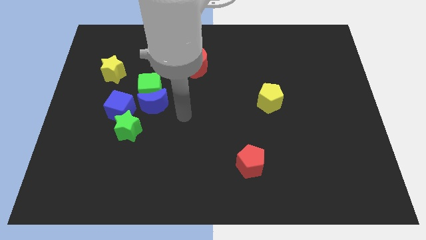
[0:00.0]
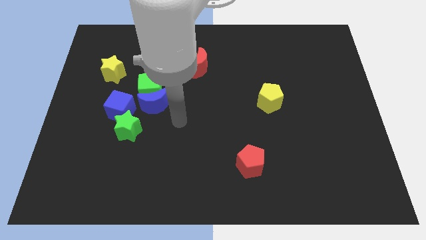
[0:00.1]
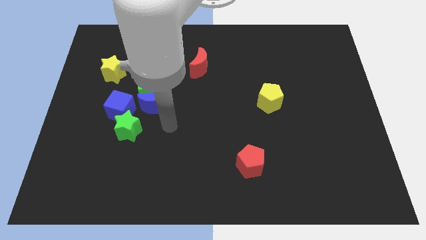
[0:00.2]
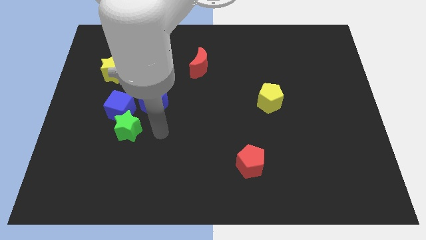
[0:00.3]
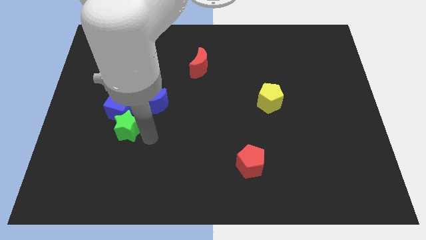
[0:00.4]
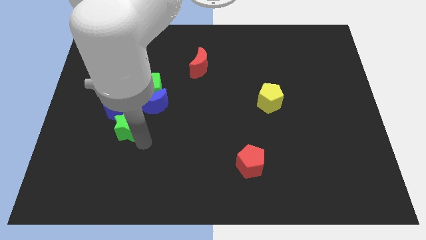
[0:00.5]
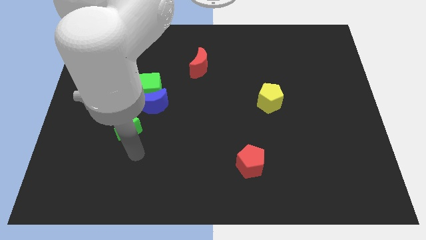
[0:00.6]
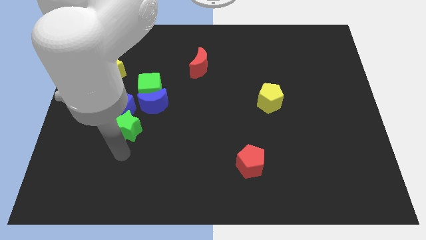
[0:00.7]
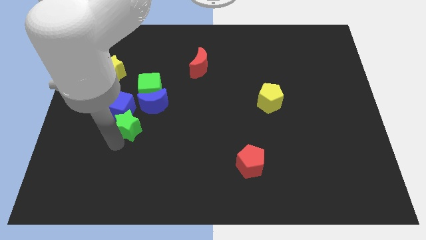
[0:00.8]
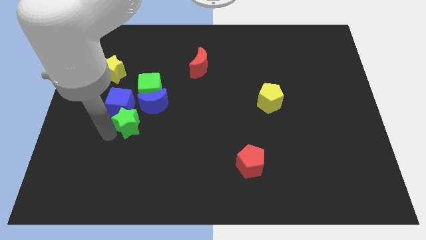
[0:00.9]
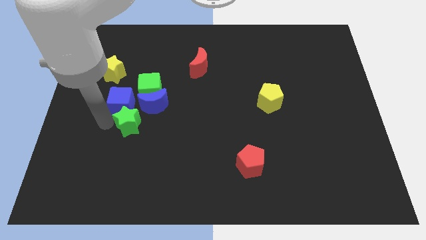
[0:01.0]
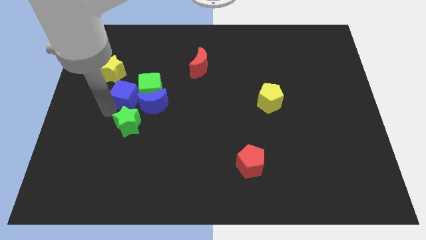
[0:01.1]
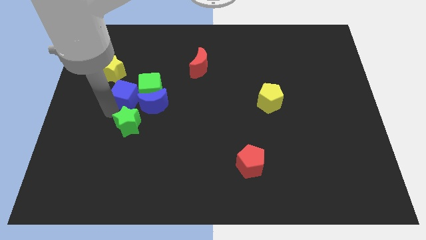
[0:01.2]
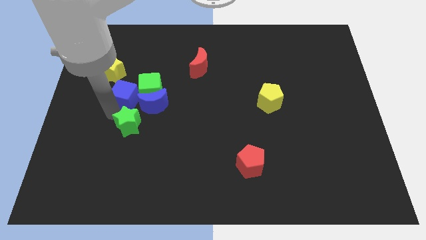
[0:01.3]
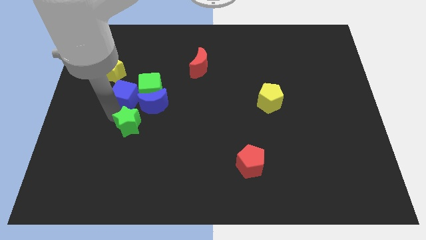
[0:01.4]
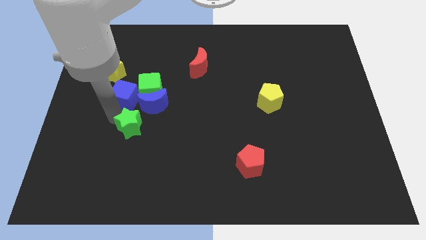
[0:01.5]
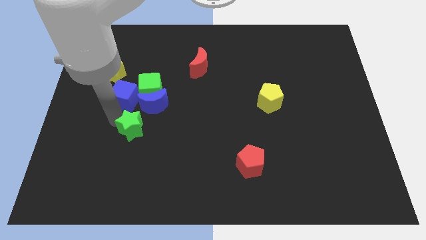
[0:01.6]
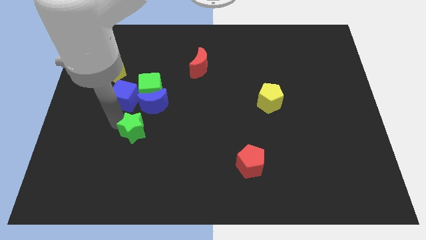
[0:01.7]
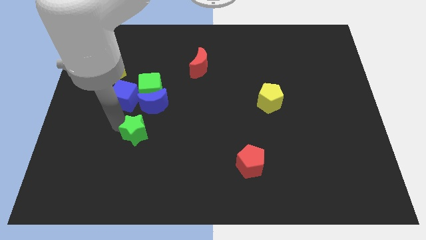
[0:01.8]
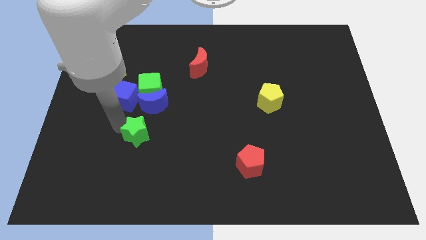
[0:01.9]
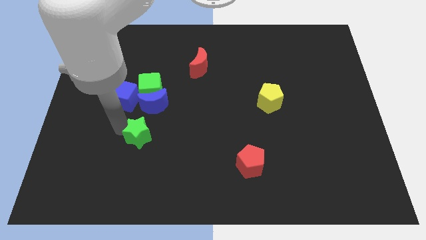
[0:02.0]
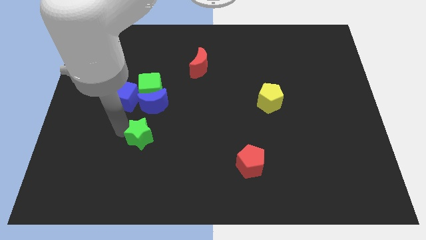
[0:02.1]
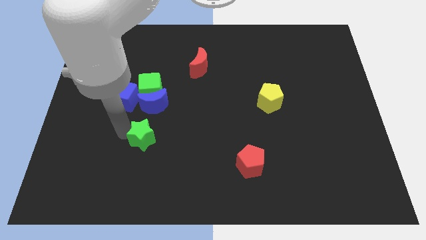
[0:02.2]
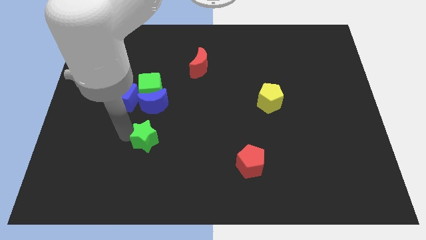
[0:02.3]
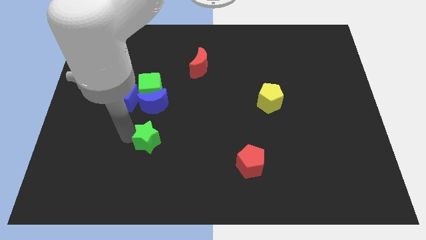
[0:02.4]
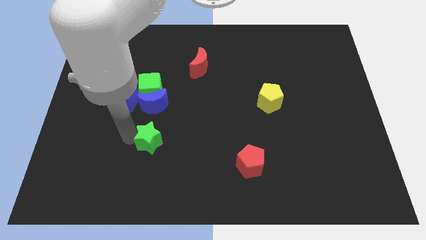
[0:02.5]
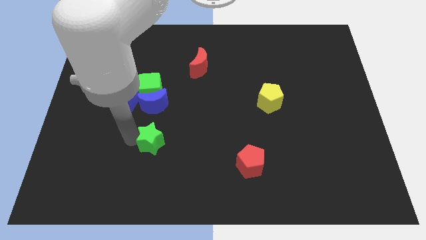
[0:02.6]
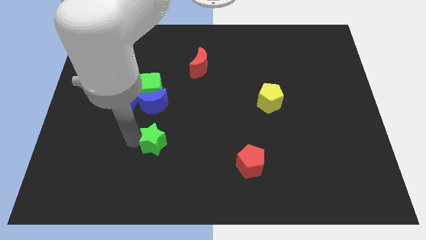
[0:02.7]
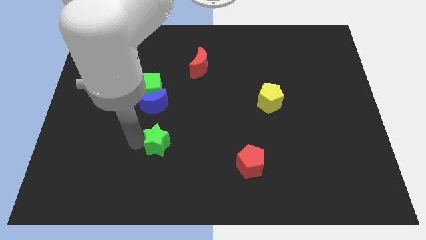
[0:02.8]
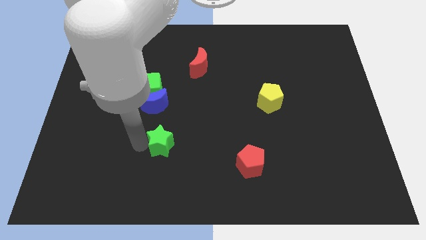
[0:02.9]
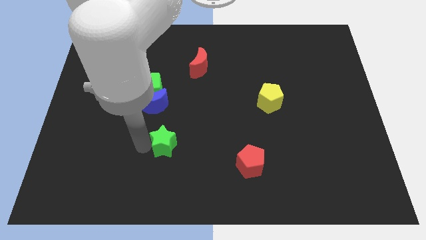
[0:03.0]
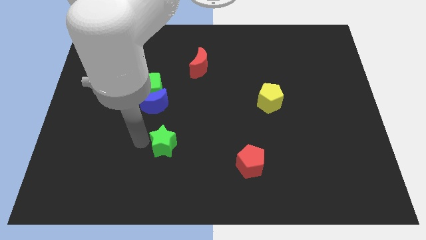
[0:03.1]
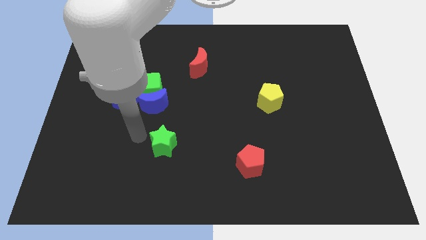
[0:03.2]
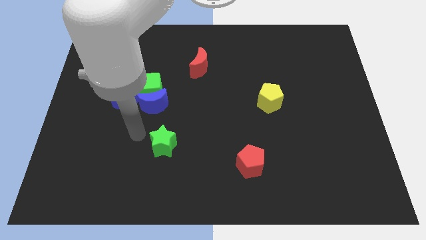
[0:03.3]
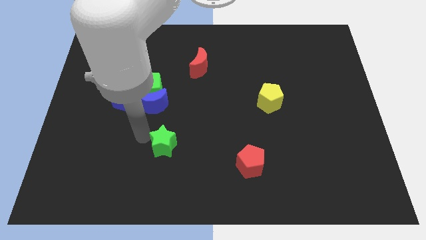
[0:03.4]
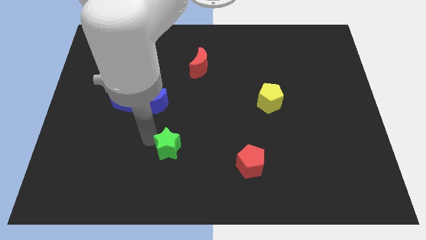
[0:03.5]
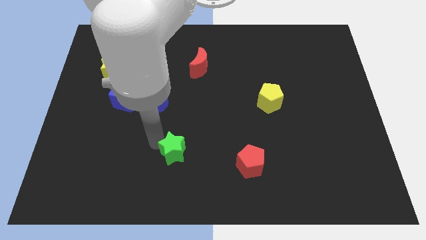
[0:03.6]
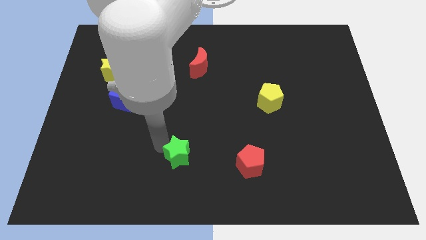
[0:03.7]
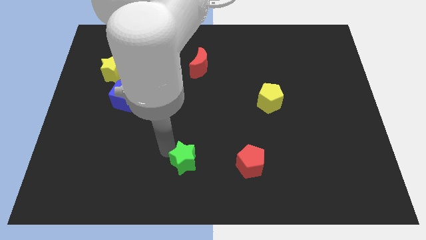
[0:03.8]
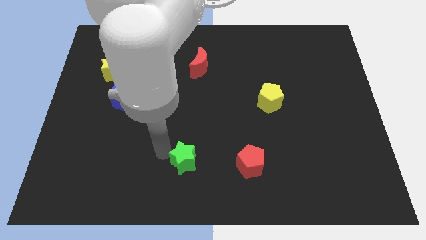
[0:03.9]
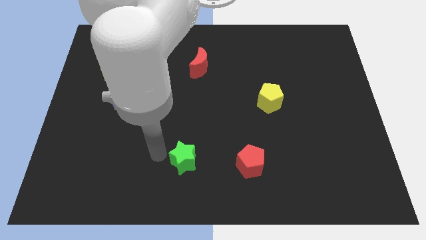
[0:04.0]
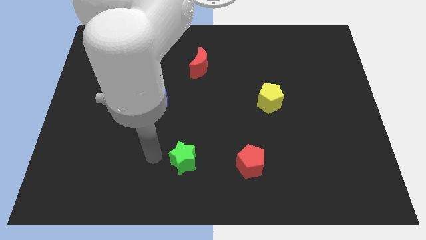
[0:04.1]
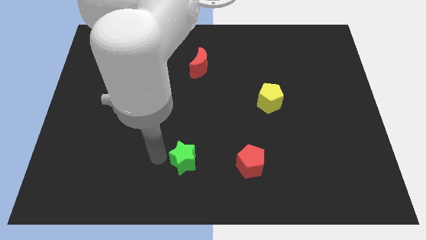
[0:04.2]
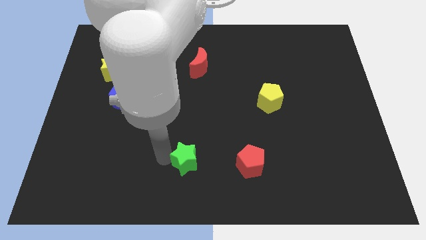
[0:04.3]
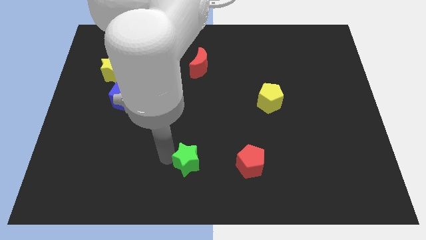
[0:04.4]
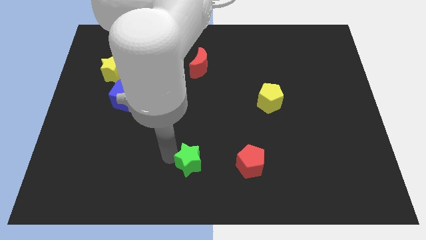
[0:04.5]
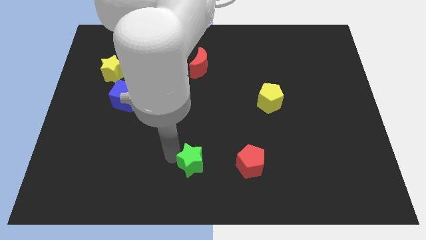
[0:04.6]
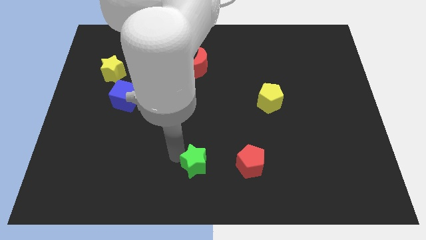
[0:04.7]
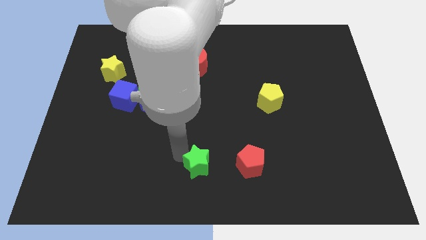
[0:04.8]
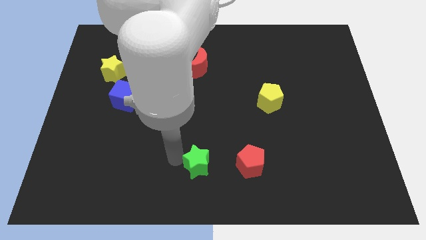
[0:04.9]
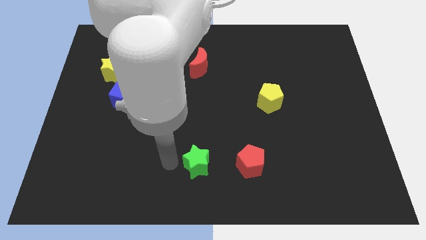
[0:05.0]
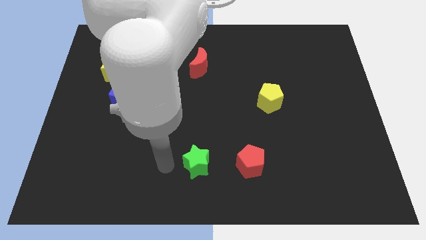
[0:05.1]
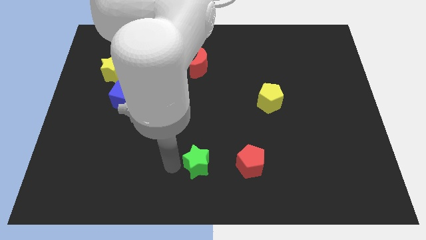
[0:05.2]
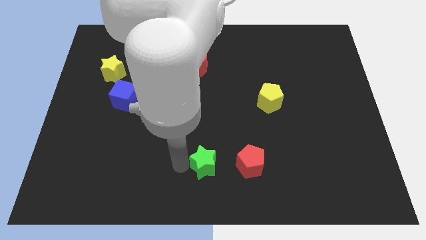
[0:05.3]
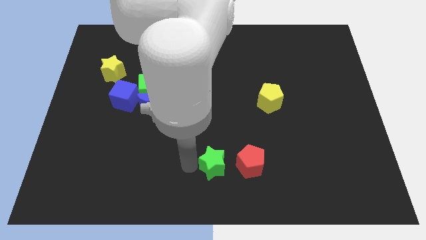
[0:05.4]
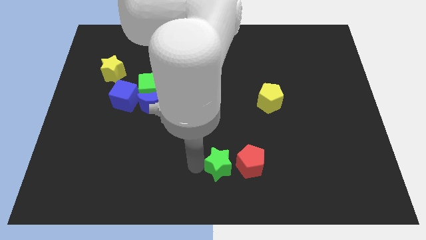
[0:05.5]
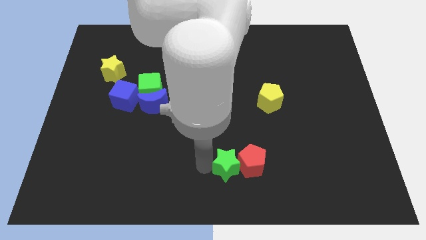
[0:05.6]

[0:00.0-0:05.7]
slide the green star next to the red pentagon

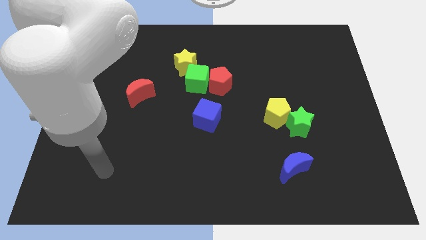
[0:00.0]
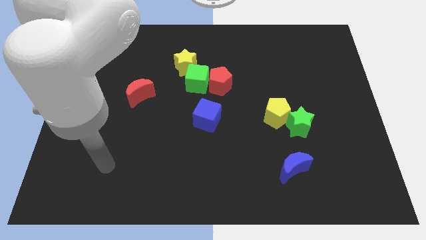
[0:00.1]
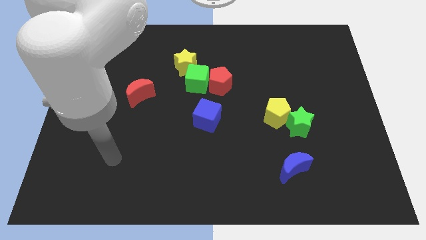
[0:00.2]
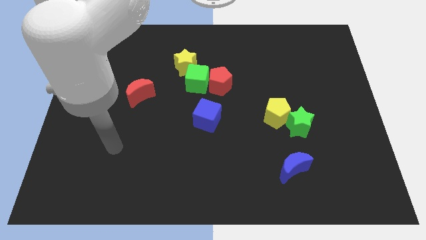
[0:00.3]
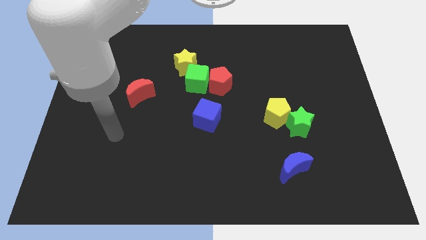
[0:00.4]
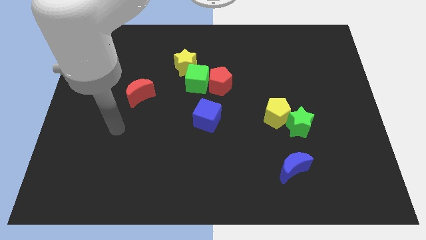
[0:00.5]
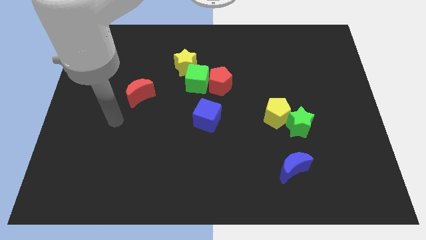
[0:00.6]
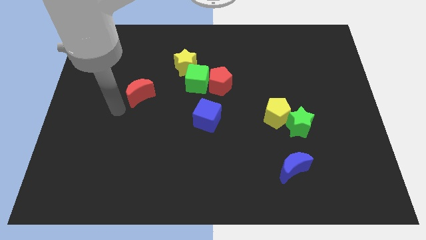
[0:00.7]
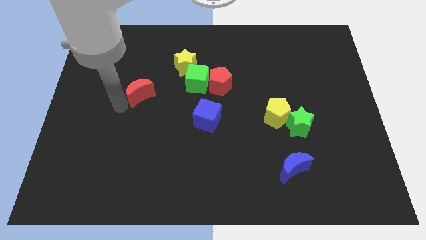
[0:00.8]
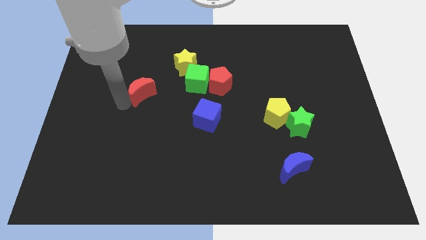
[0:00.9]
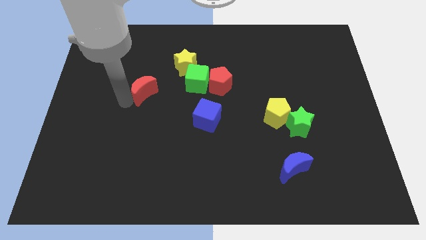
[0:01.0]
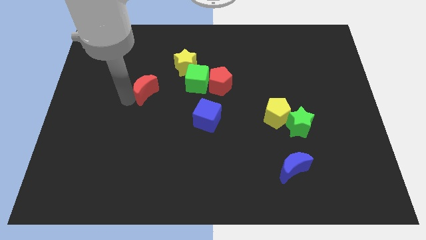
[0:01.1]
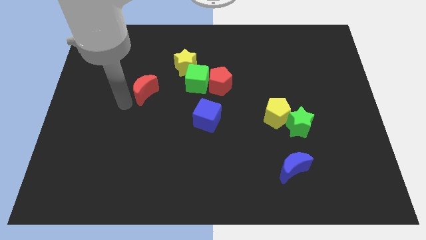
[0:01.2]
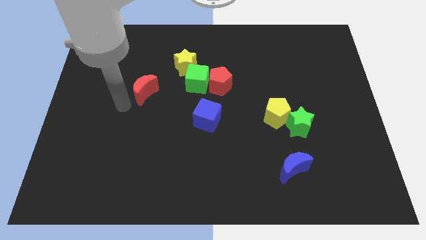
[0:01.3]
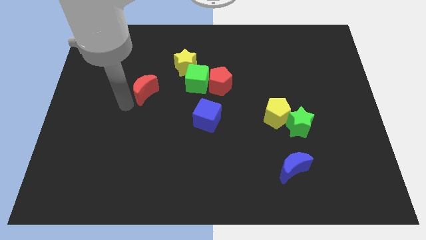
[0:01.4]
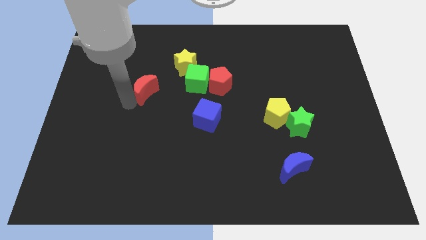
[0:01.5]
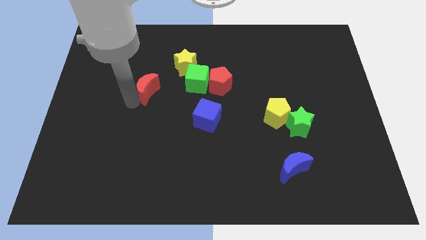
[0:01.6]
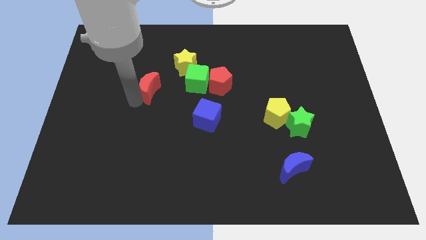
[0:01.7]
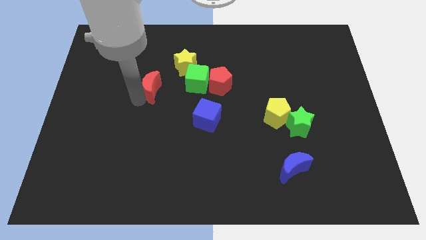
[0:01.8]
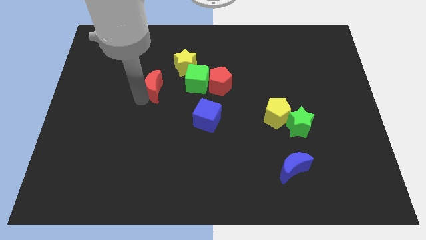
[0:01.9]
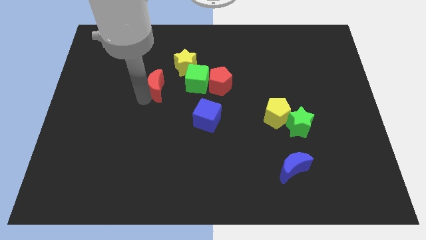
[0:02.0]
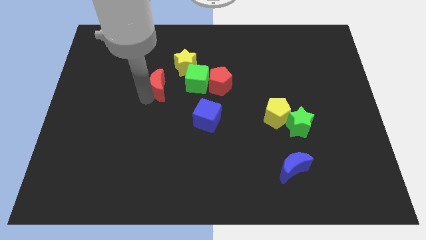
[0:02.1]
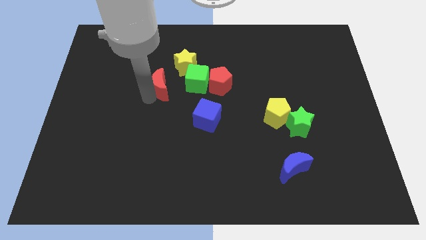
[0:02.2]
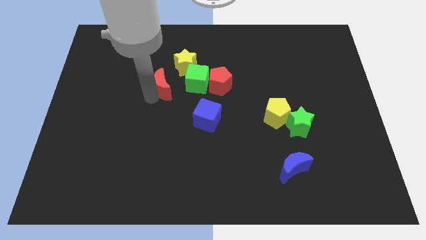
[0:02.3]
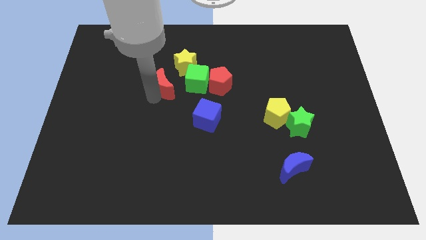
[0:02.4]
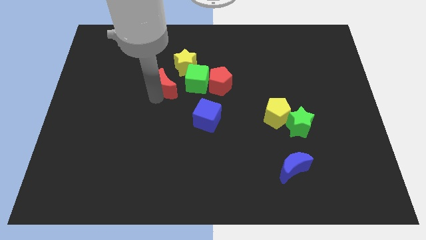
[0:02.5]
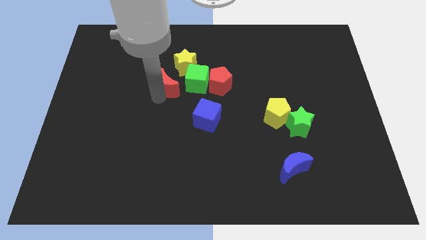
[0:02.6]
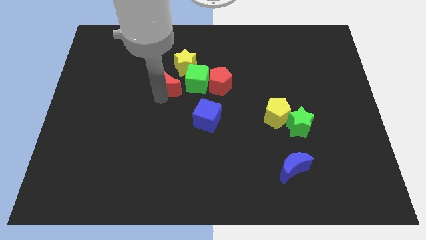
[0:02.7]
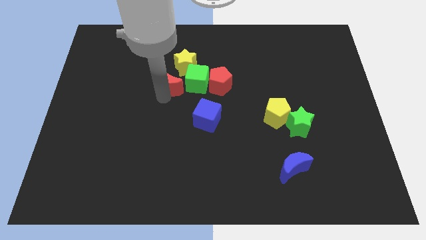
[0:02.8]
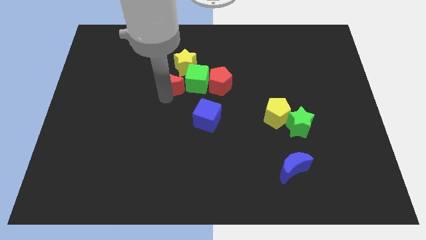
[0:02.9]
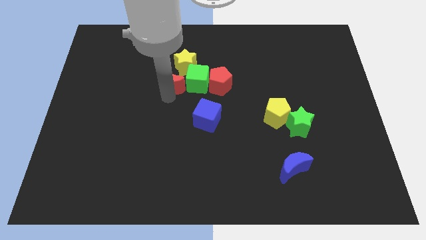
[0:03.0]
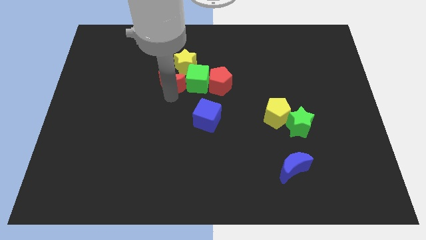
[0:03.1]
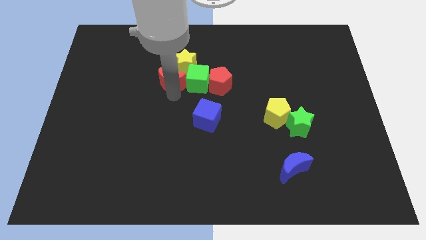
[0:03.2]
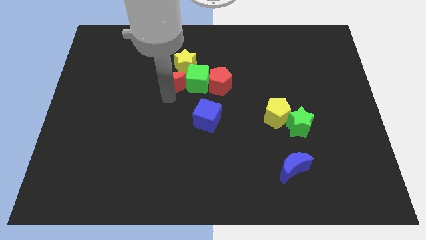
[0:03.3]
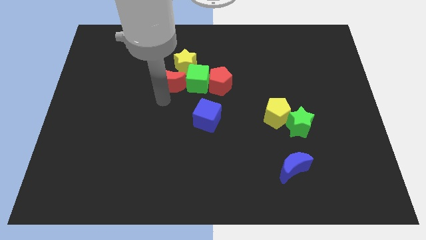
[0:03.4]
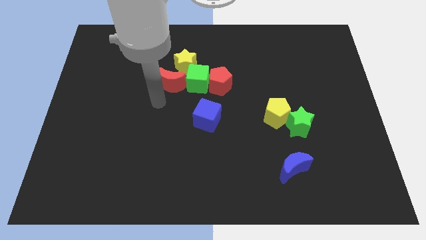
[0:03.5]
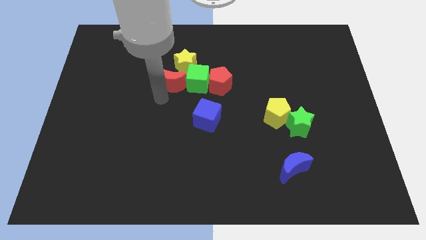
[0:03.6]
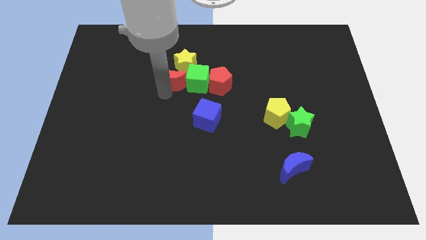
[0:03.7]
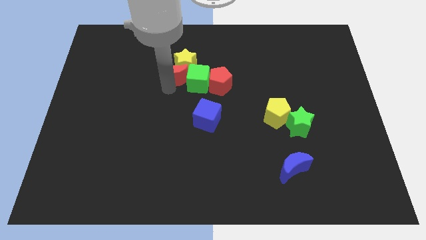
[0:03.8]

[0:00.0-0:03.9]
slide the red moon towards the yellow star
